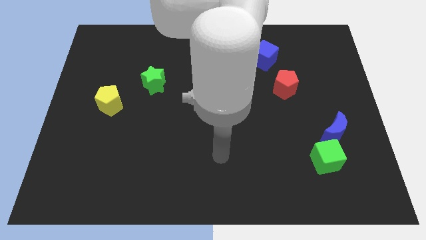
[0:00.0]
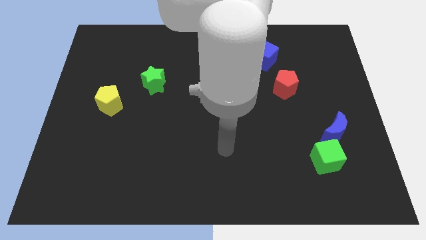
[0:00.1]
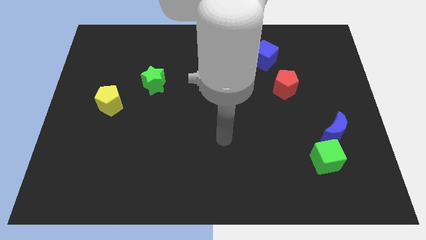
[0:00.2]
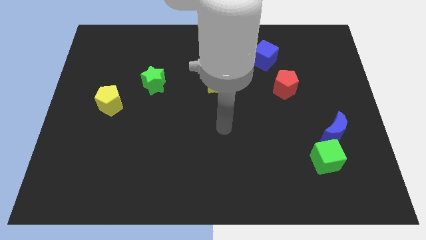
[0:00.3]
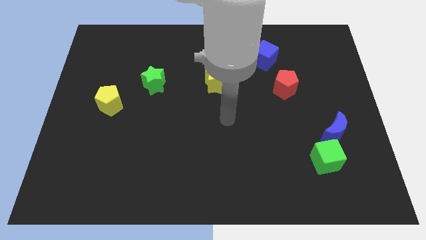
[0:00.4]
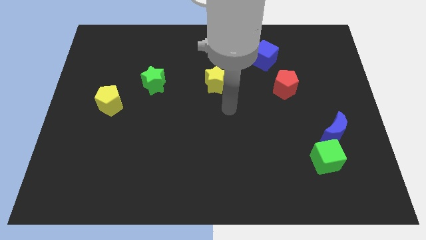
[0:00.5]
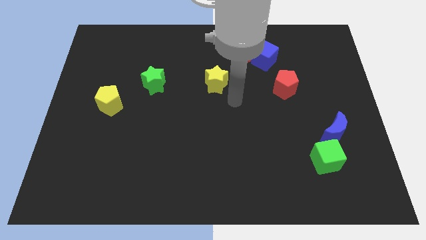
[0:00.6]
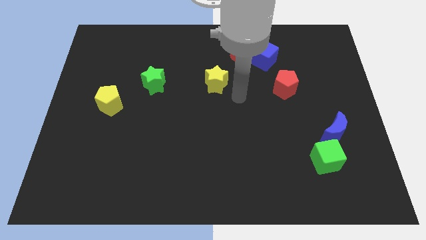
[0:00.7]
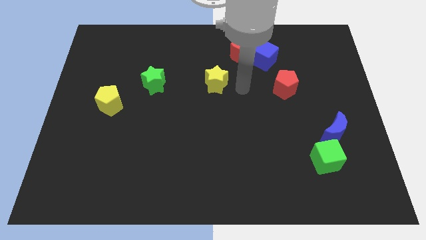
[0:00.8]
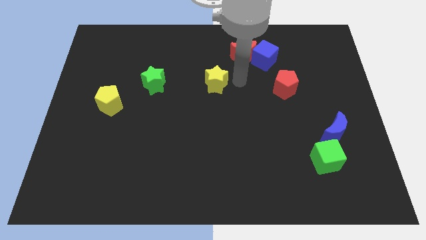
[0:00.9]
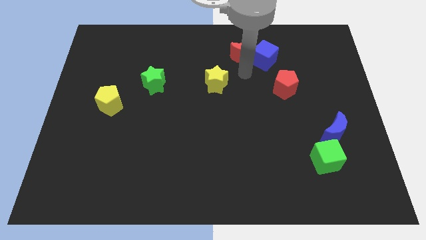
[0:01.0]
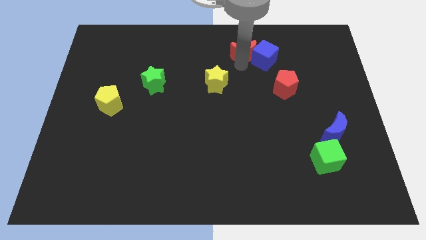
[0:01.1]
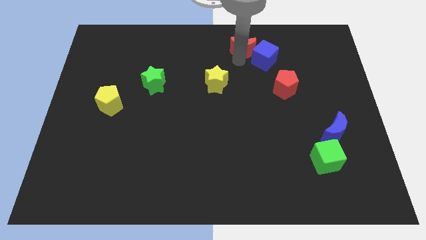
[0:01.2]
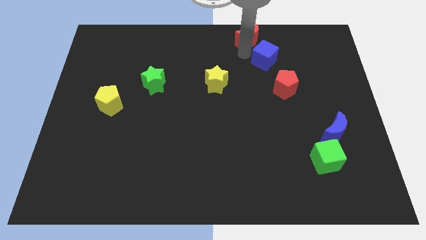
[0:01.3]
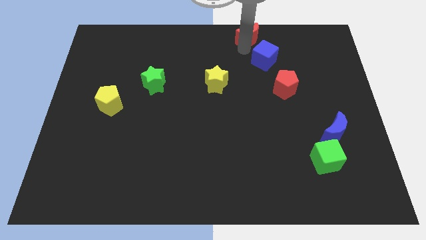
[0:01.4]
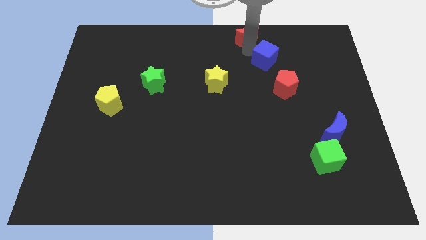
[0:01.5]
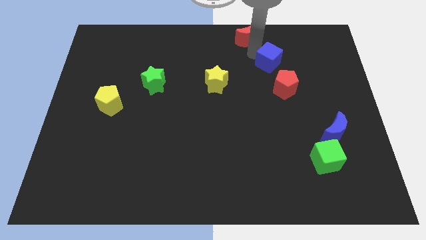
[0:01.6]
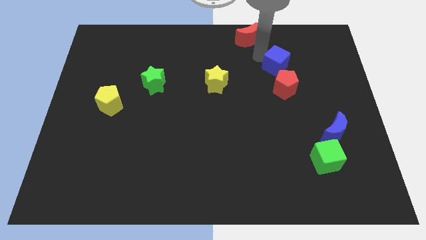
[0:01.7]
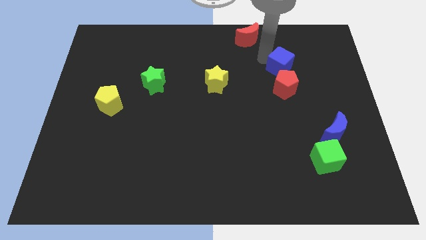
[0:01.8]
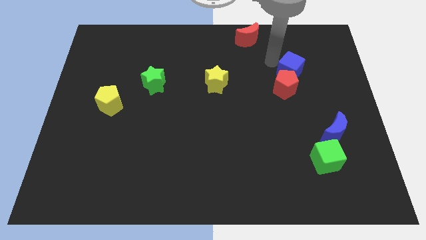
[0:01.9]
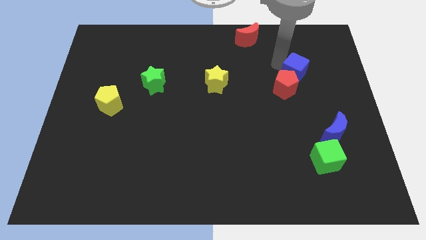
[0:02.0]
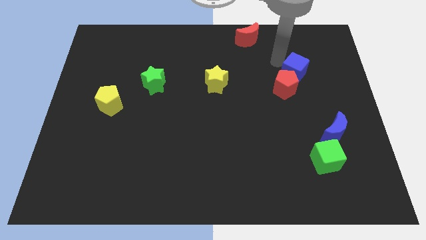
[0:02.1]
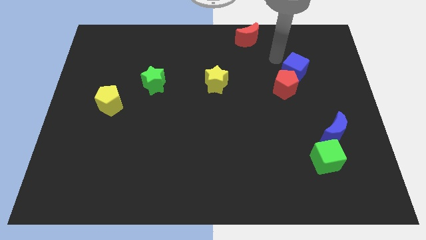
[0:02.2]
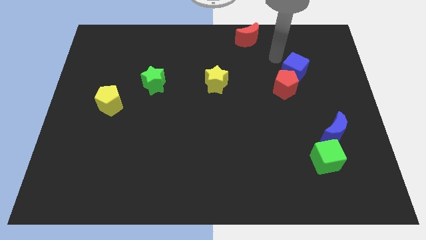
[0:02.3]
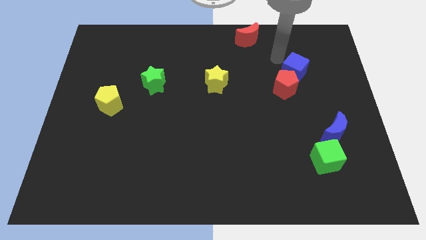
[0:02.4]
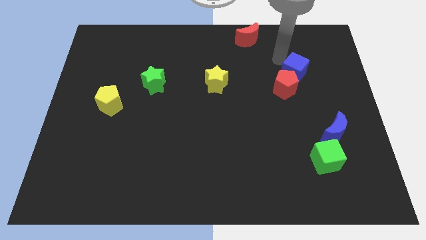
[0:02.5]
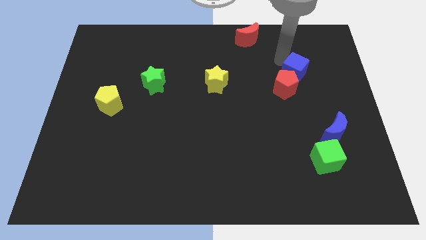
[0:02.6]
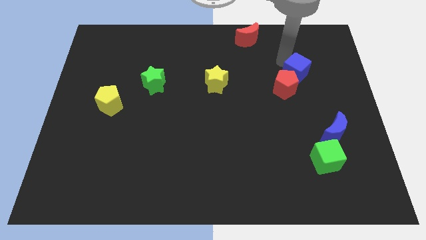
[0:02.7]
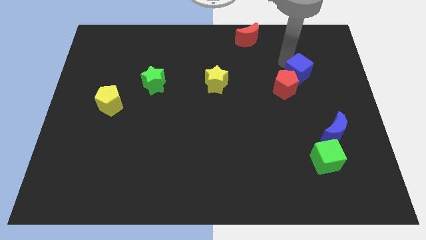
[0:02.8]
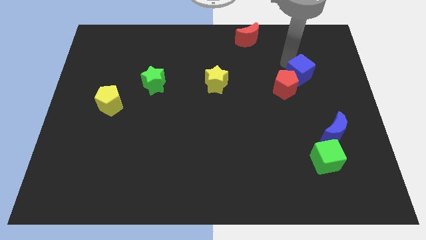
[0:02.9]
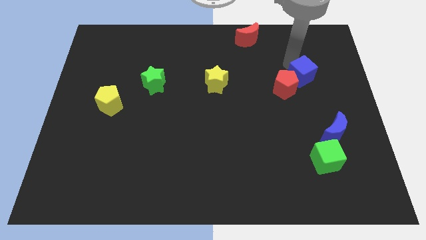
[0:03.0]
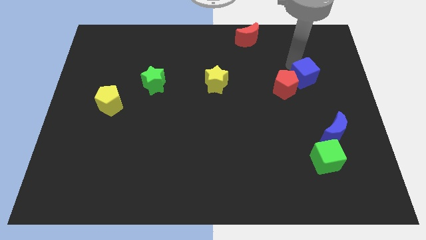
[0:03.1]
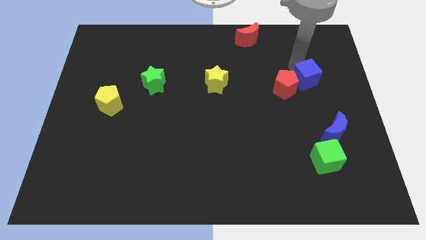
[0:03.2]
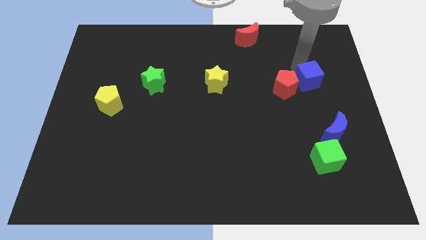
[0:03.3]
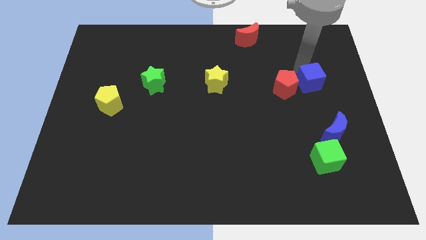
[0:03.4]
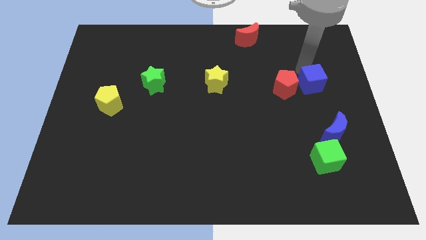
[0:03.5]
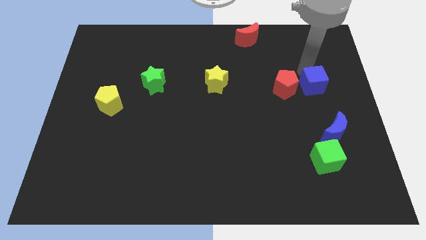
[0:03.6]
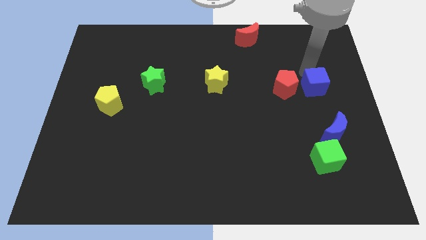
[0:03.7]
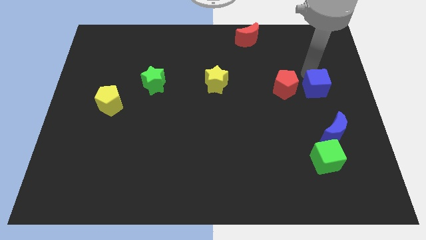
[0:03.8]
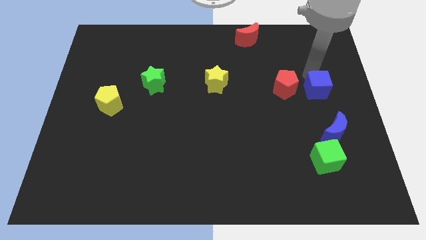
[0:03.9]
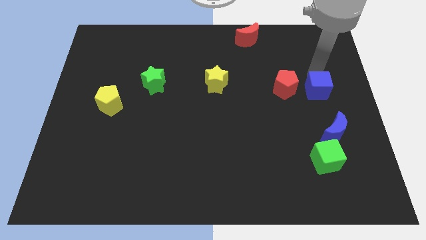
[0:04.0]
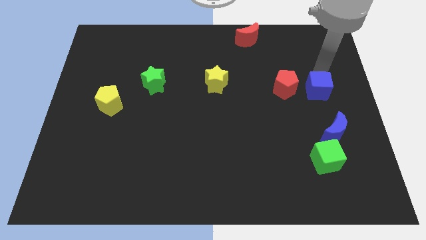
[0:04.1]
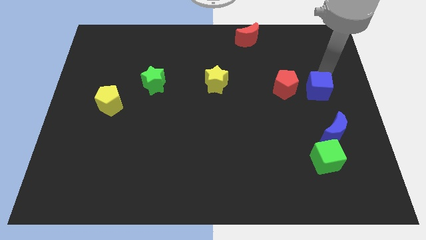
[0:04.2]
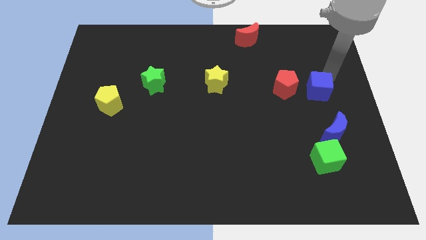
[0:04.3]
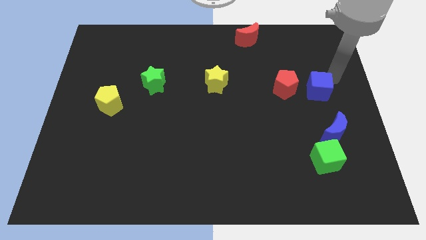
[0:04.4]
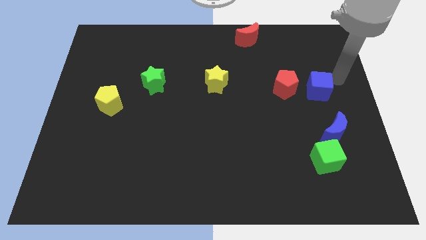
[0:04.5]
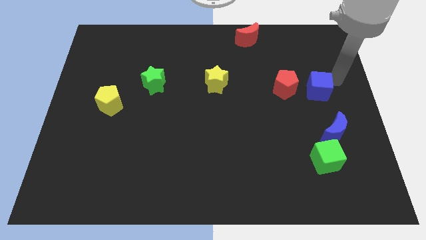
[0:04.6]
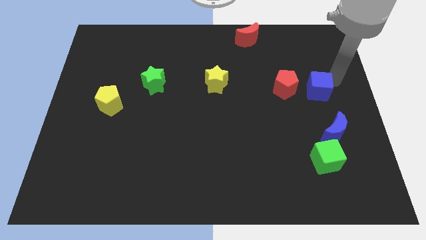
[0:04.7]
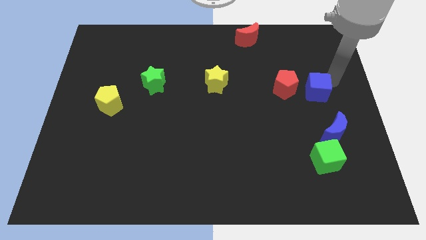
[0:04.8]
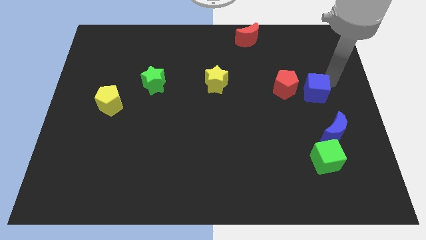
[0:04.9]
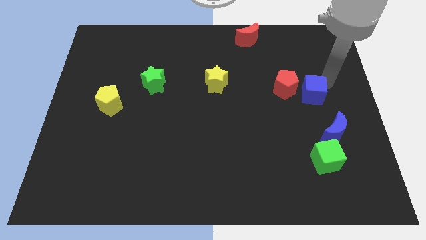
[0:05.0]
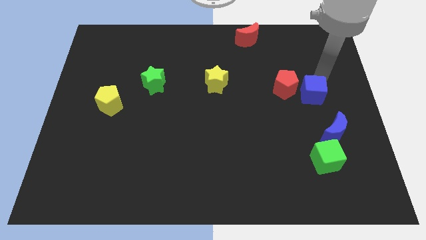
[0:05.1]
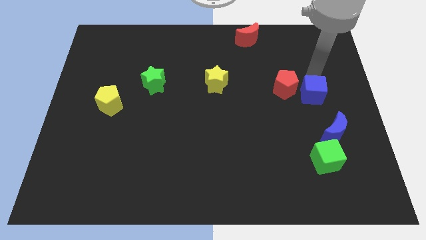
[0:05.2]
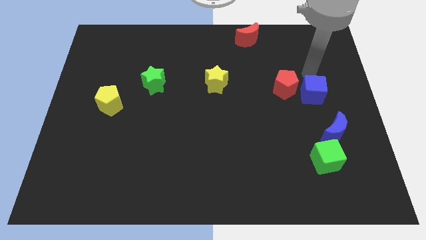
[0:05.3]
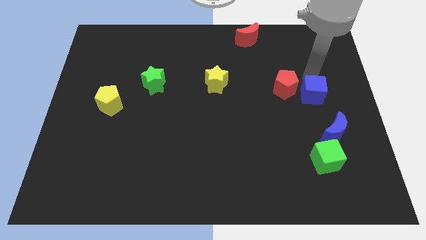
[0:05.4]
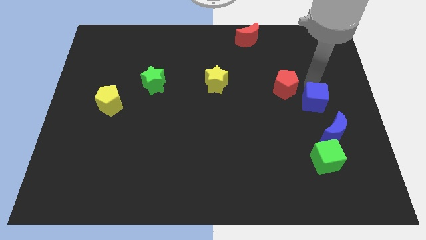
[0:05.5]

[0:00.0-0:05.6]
push the blue cube to the top side of the green cube

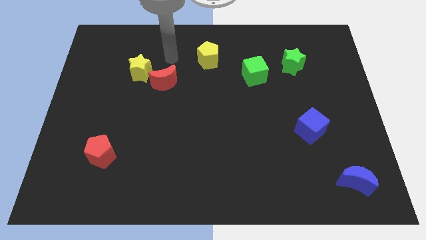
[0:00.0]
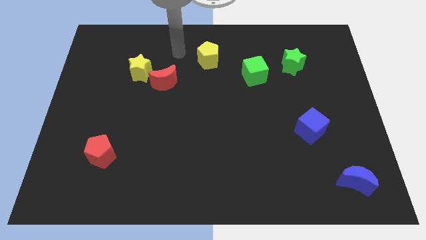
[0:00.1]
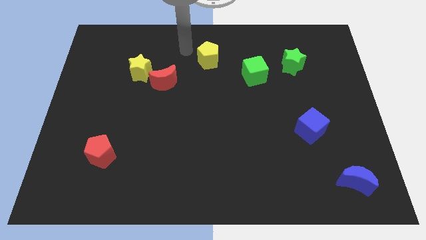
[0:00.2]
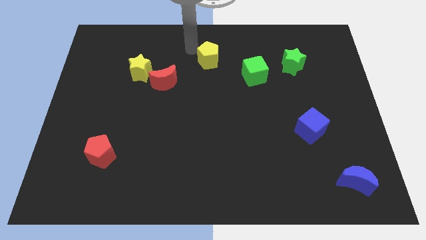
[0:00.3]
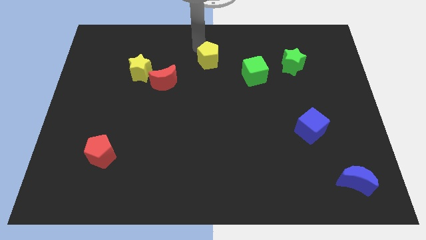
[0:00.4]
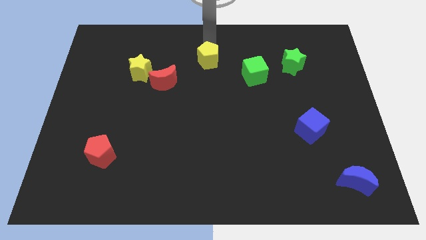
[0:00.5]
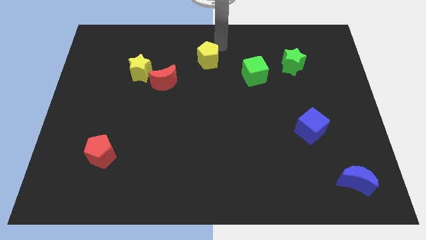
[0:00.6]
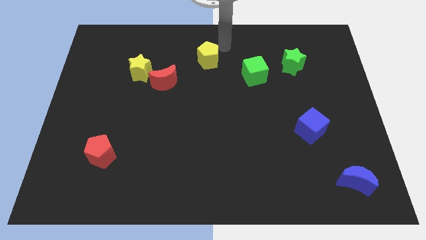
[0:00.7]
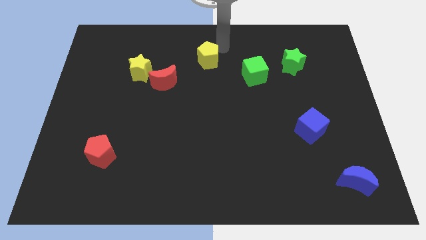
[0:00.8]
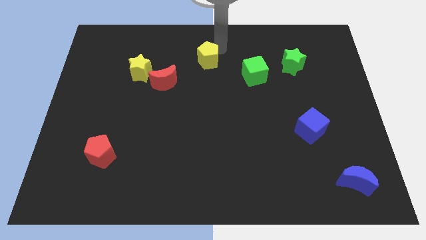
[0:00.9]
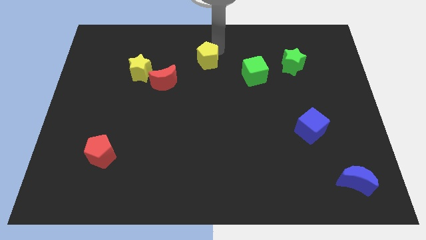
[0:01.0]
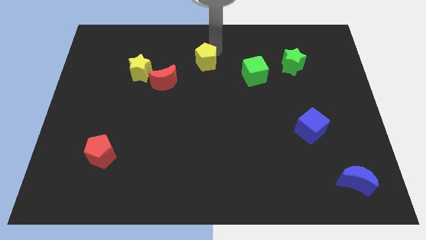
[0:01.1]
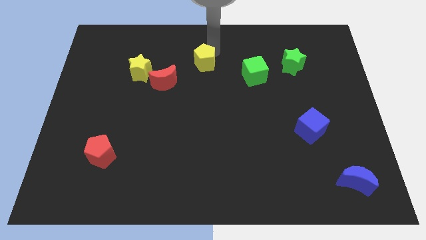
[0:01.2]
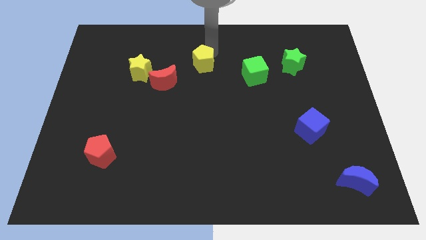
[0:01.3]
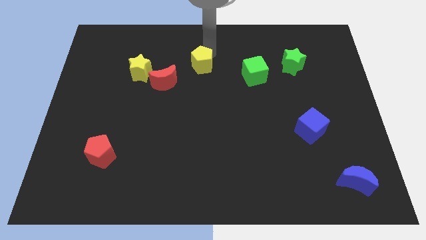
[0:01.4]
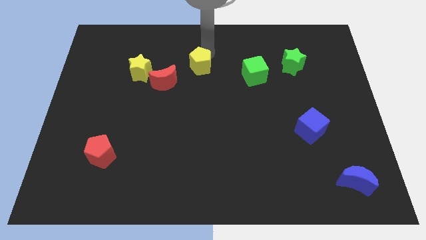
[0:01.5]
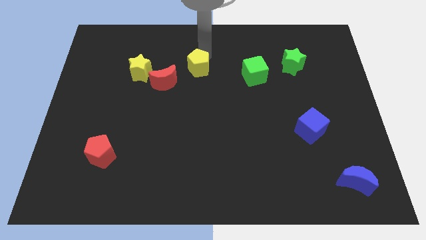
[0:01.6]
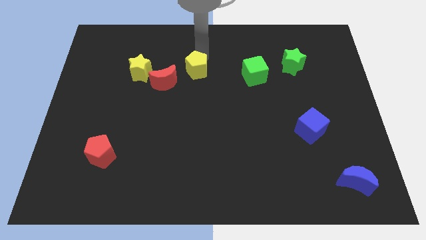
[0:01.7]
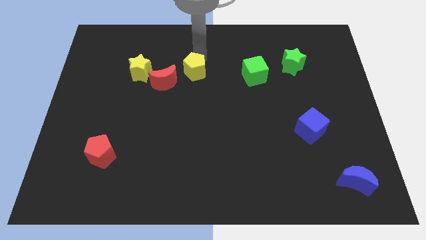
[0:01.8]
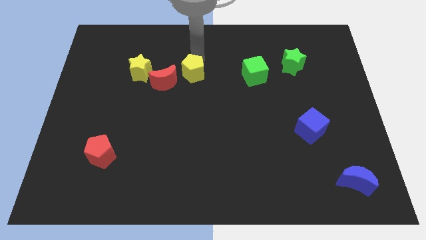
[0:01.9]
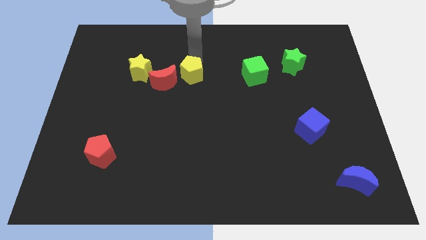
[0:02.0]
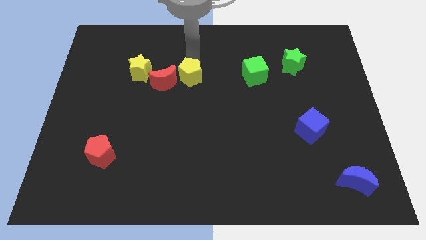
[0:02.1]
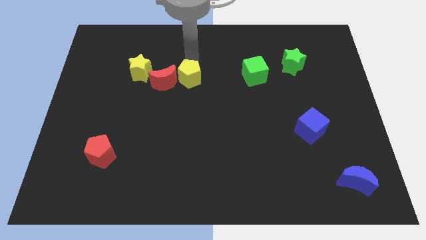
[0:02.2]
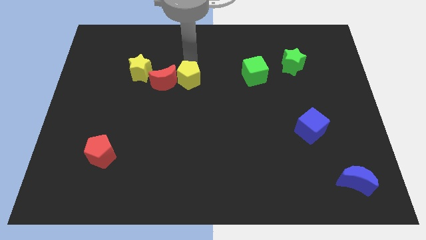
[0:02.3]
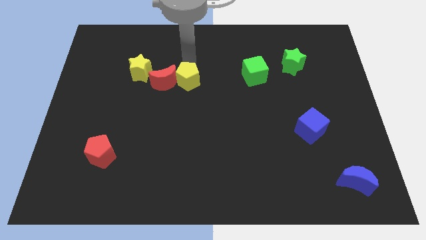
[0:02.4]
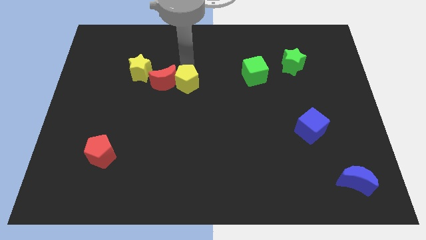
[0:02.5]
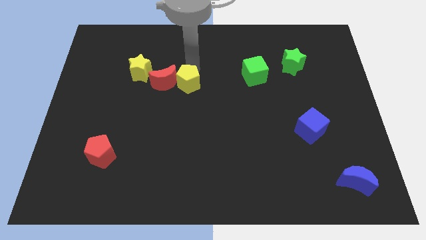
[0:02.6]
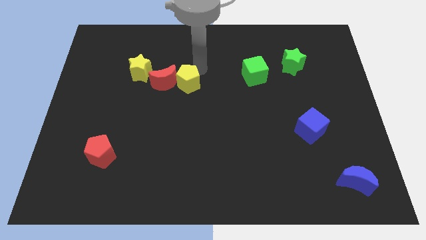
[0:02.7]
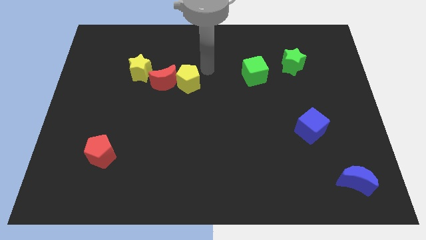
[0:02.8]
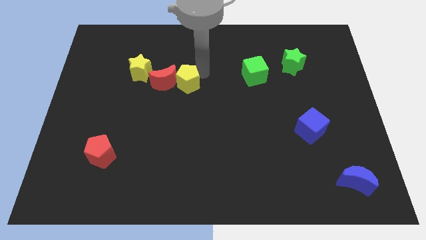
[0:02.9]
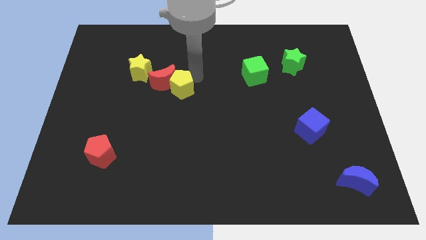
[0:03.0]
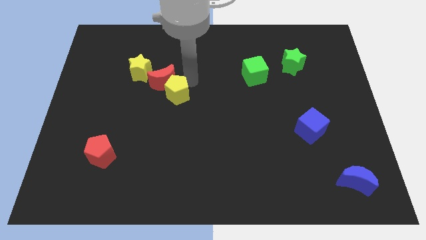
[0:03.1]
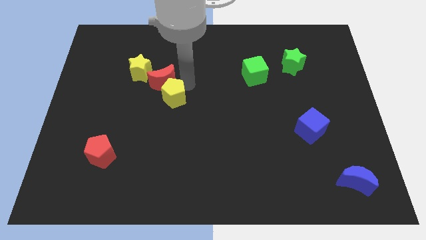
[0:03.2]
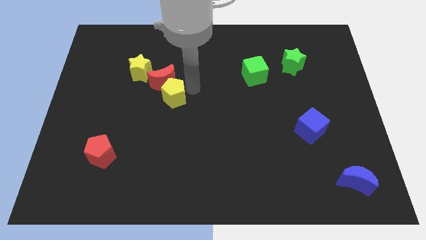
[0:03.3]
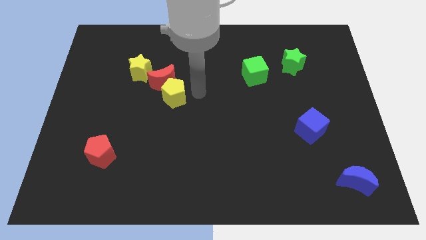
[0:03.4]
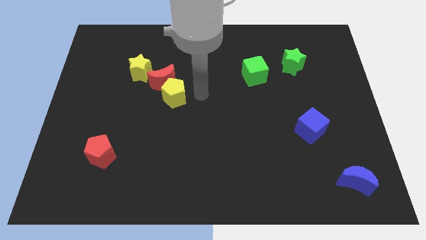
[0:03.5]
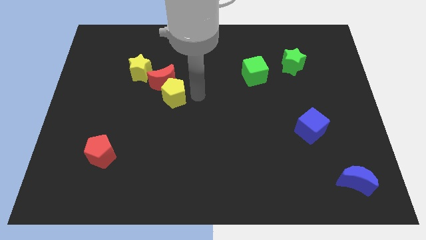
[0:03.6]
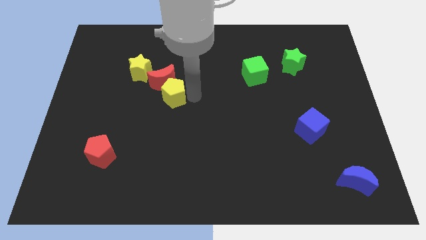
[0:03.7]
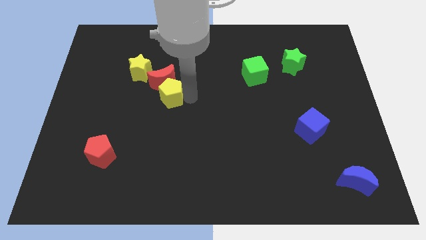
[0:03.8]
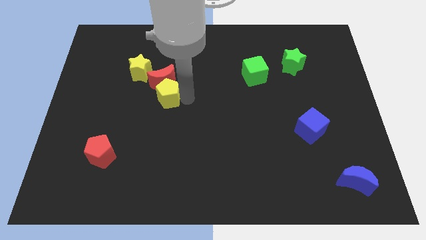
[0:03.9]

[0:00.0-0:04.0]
push the yellow pentagon diagonally down and to the left of the red moon
